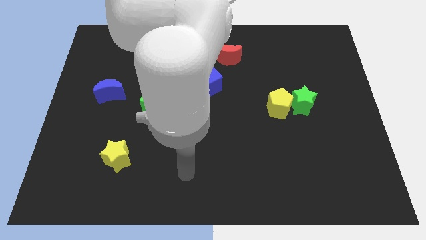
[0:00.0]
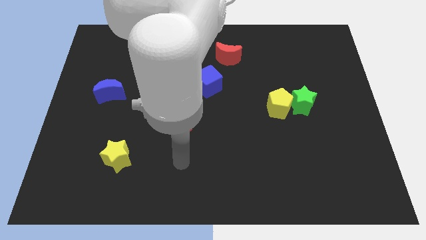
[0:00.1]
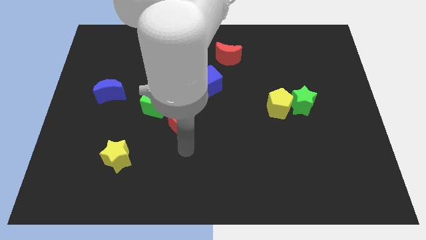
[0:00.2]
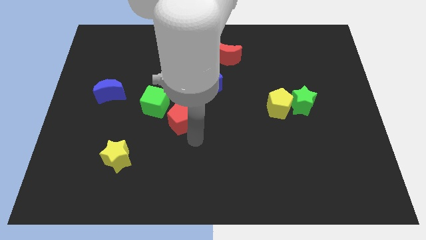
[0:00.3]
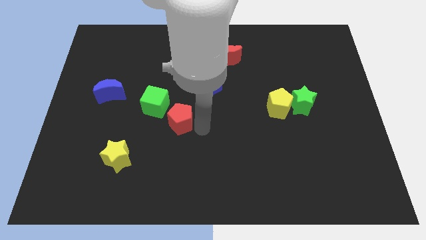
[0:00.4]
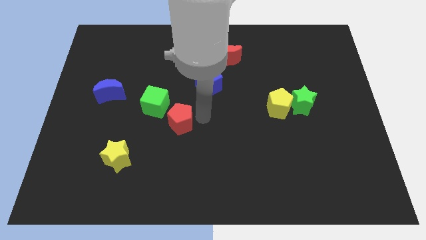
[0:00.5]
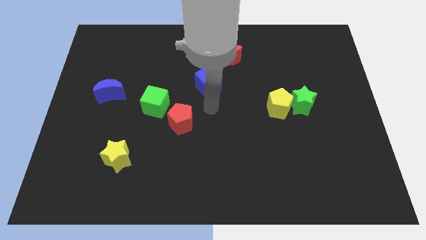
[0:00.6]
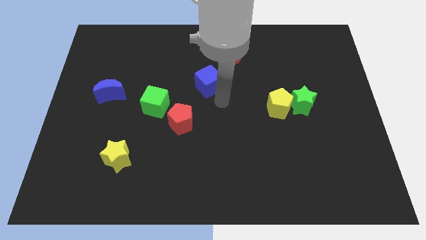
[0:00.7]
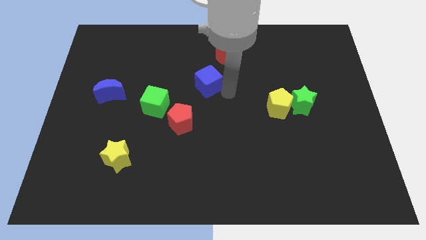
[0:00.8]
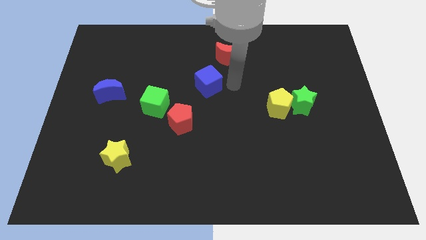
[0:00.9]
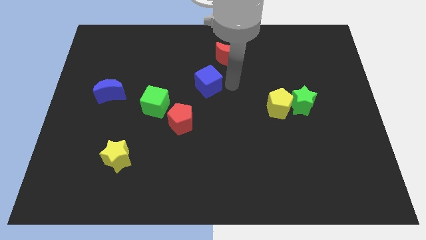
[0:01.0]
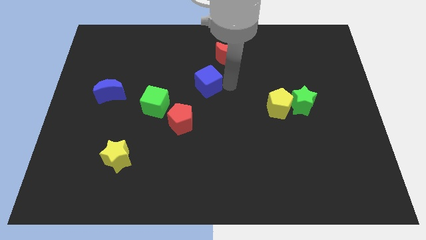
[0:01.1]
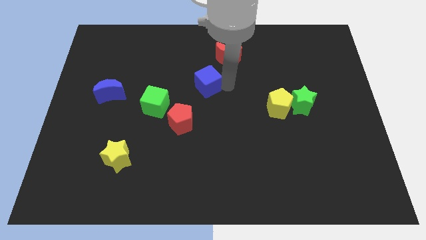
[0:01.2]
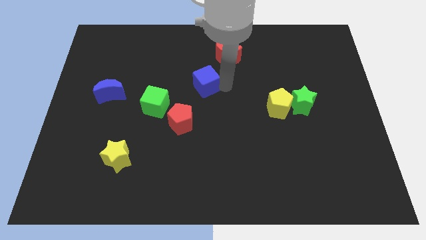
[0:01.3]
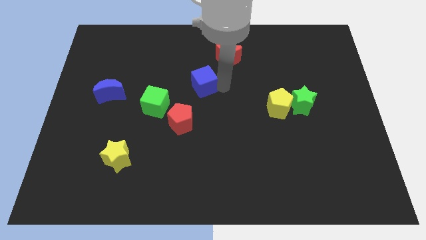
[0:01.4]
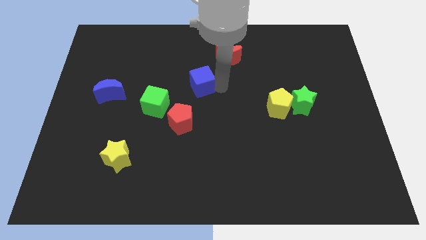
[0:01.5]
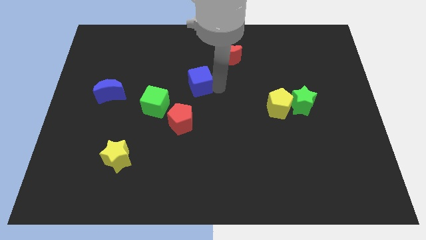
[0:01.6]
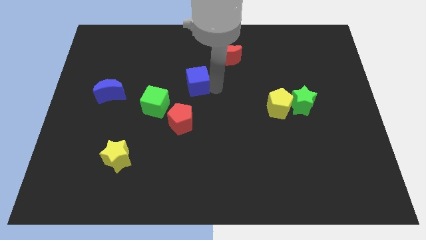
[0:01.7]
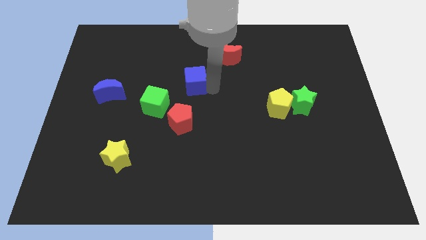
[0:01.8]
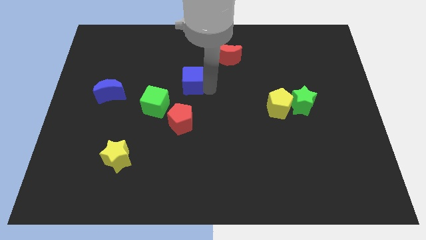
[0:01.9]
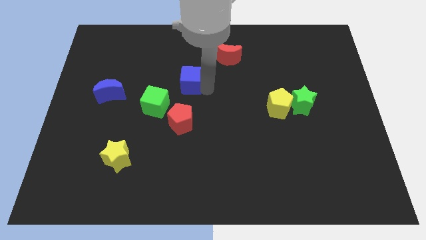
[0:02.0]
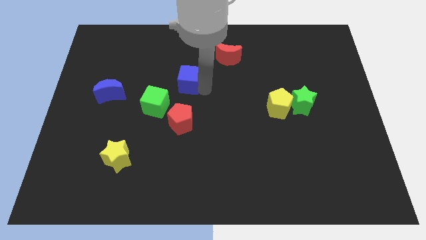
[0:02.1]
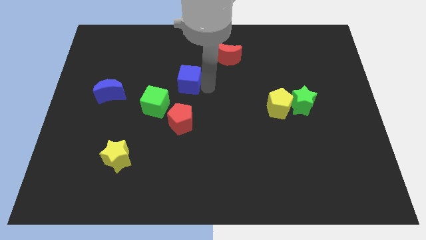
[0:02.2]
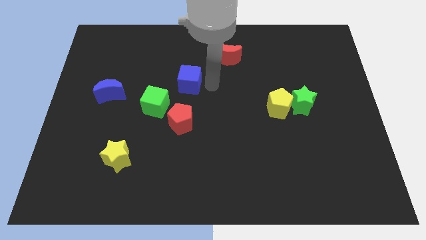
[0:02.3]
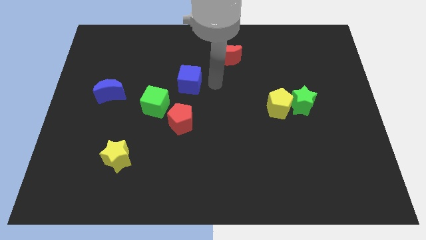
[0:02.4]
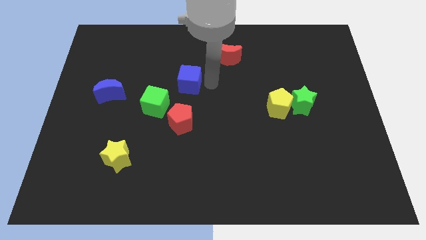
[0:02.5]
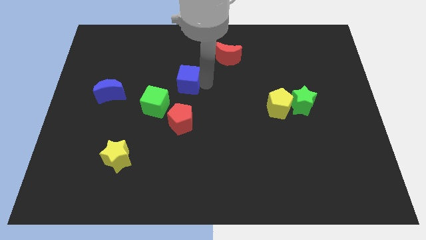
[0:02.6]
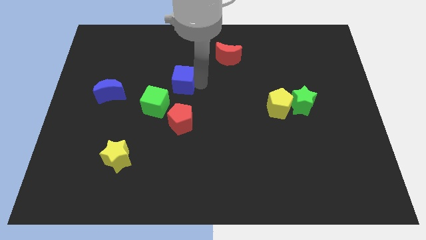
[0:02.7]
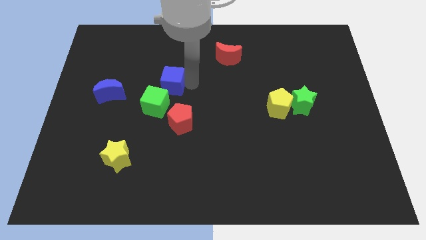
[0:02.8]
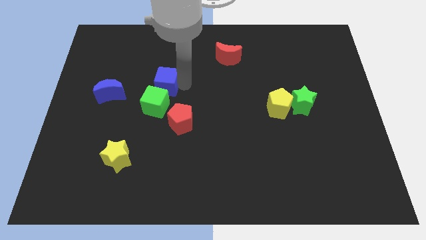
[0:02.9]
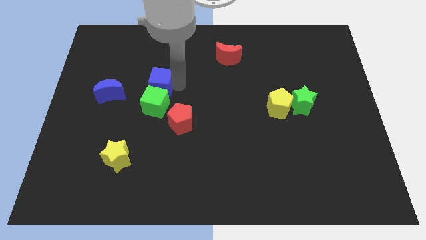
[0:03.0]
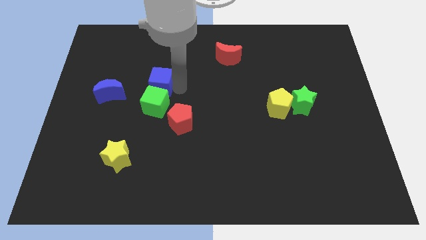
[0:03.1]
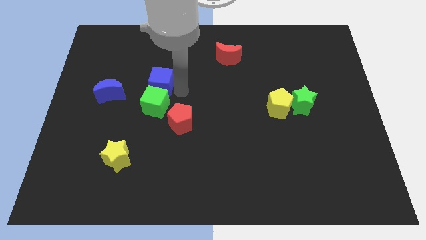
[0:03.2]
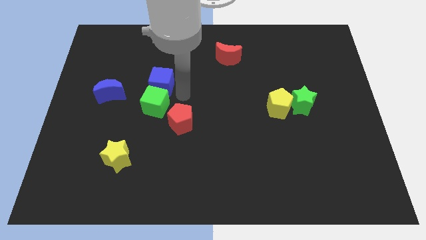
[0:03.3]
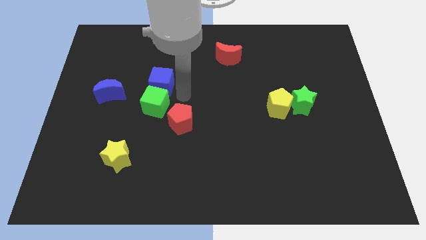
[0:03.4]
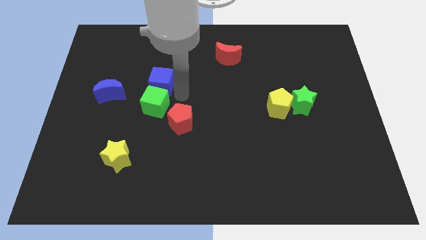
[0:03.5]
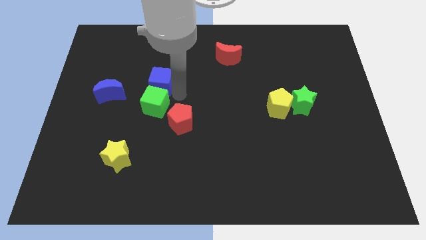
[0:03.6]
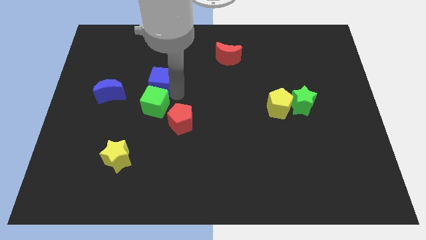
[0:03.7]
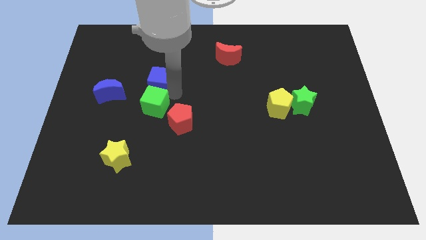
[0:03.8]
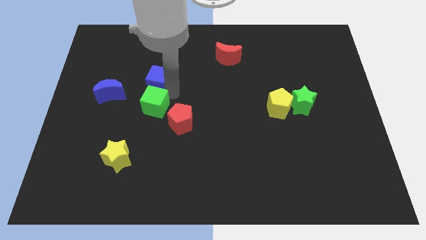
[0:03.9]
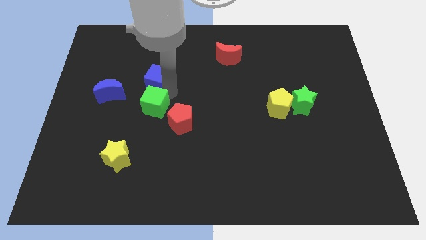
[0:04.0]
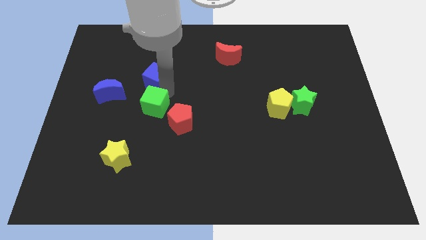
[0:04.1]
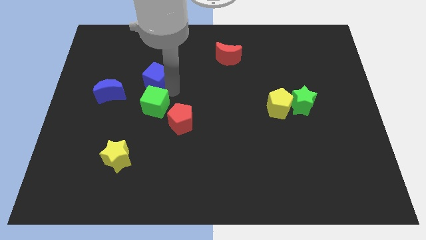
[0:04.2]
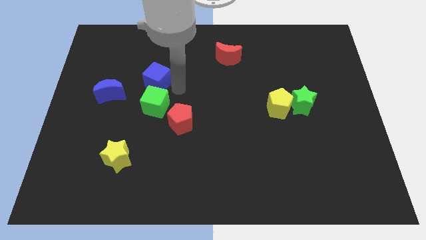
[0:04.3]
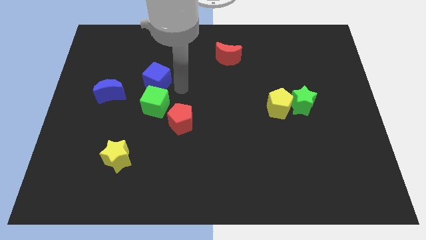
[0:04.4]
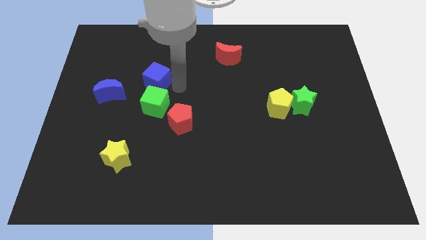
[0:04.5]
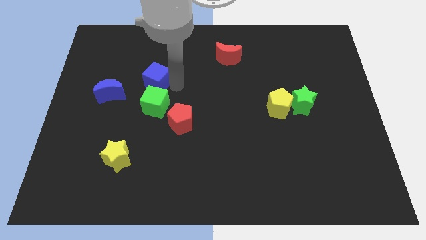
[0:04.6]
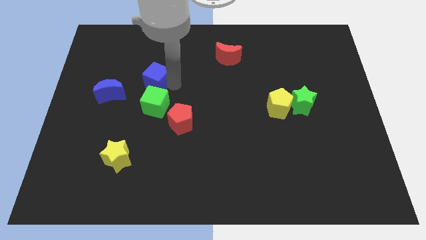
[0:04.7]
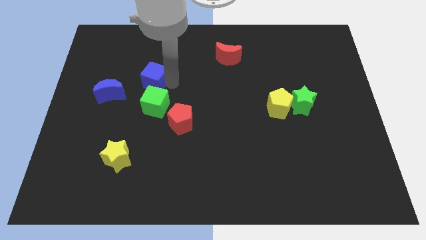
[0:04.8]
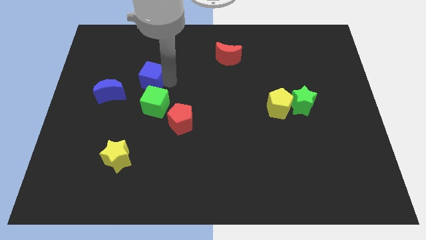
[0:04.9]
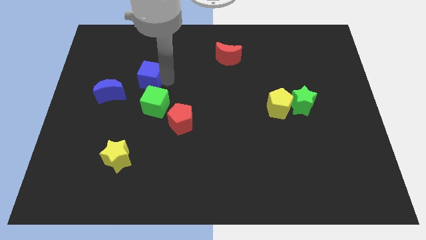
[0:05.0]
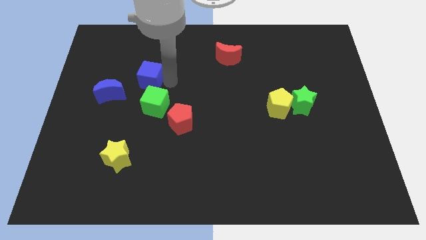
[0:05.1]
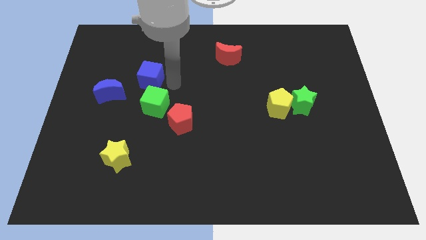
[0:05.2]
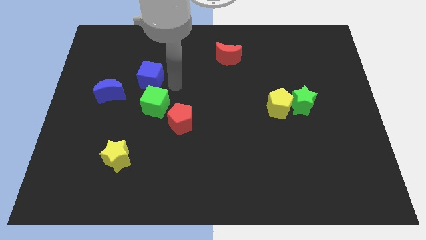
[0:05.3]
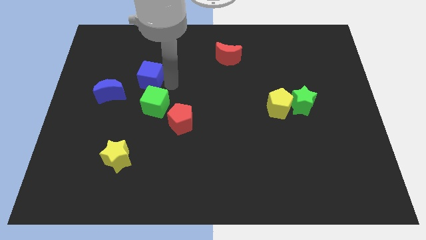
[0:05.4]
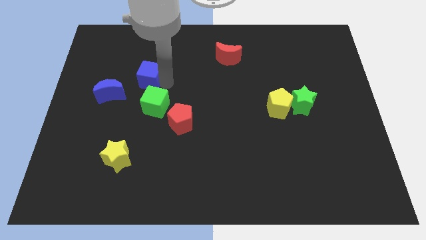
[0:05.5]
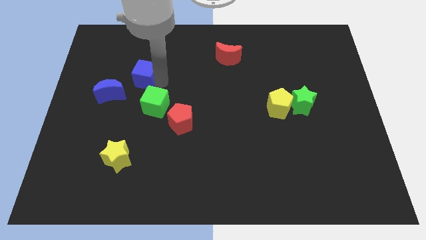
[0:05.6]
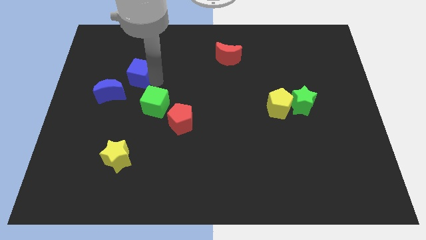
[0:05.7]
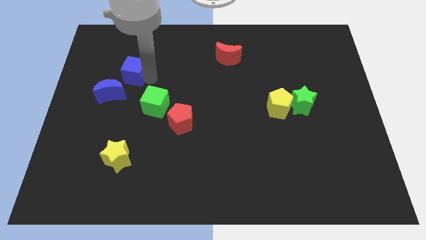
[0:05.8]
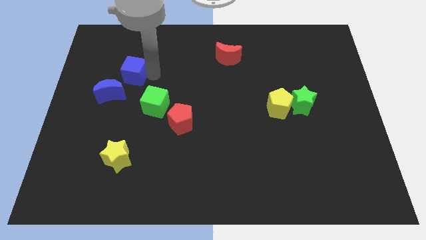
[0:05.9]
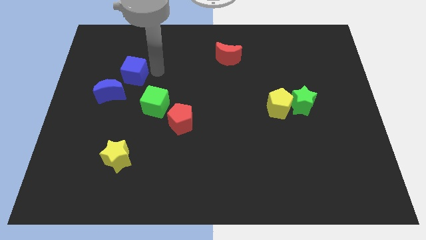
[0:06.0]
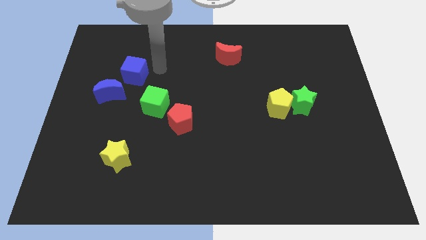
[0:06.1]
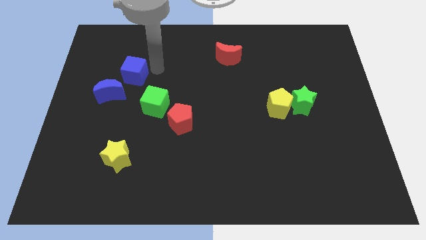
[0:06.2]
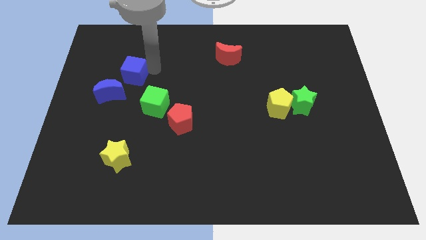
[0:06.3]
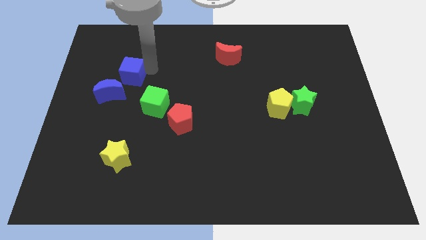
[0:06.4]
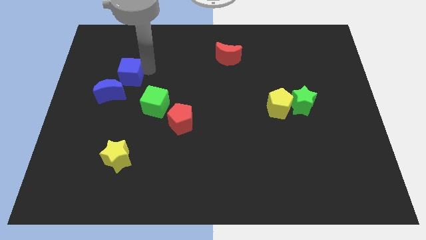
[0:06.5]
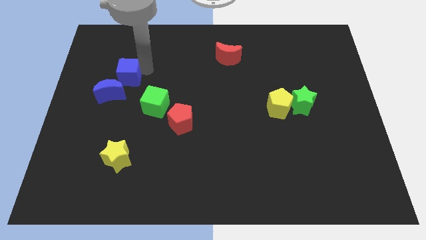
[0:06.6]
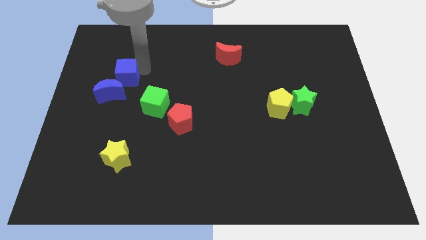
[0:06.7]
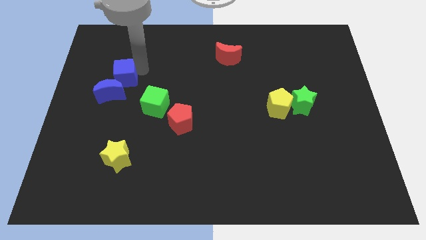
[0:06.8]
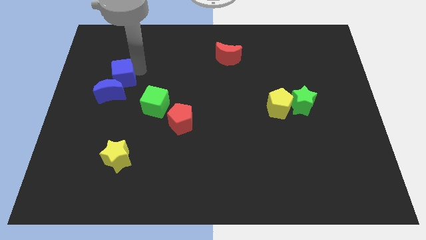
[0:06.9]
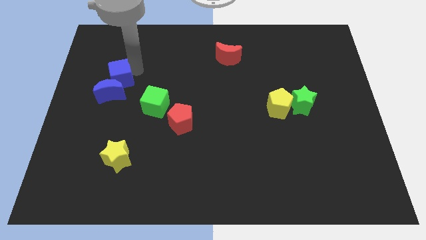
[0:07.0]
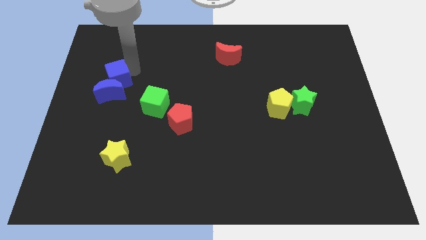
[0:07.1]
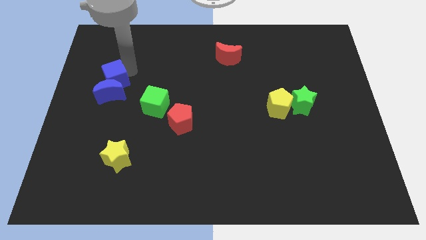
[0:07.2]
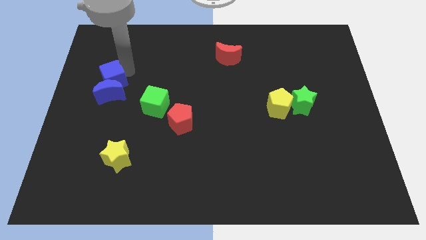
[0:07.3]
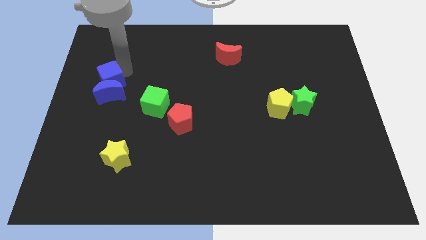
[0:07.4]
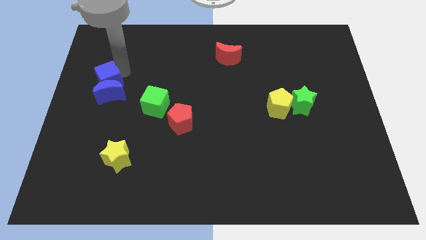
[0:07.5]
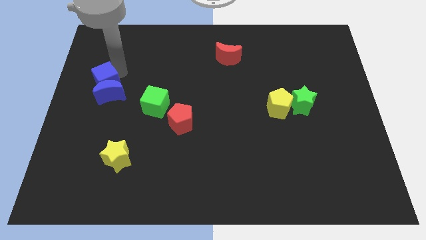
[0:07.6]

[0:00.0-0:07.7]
slide the blue cube to the center left
